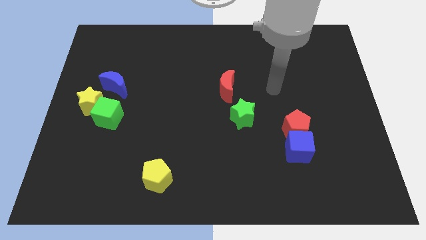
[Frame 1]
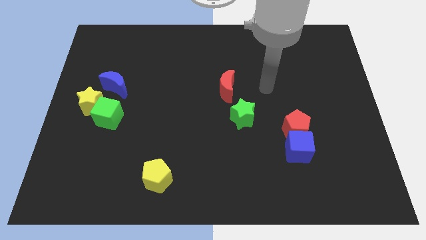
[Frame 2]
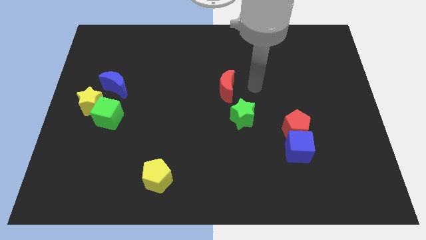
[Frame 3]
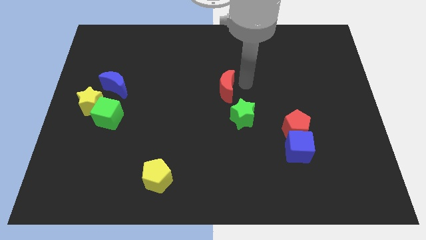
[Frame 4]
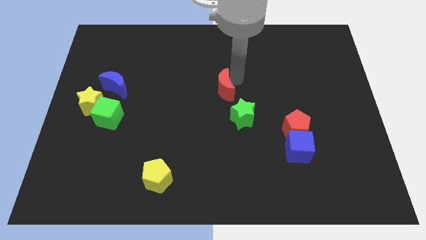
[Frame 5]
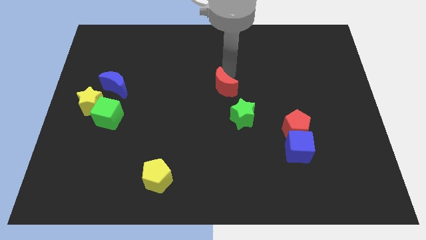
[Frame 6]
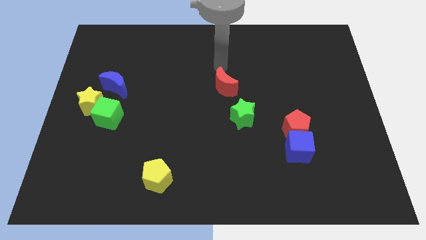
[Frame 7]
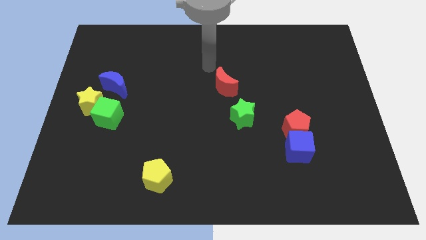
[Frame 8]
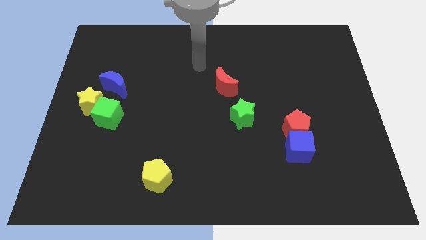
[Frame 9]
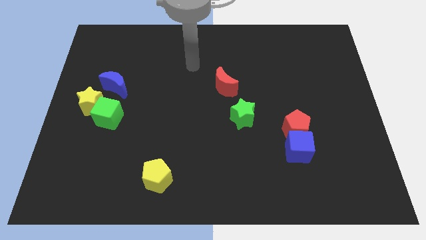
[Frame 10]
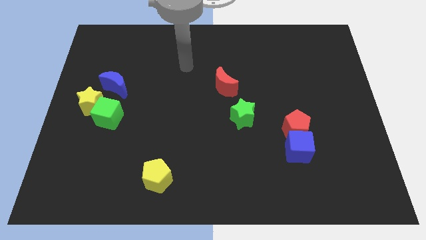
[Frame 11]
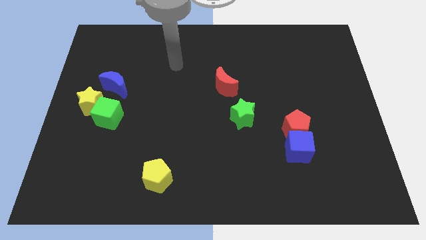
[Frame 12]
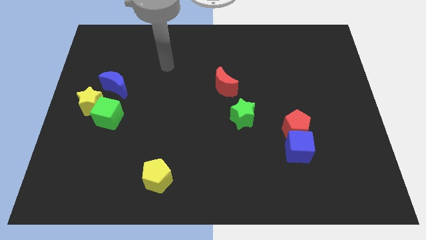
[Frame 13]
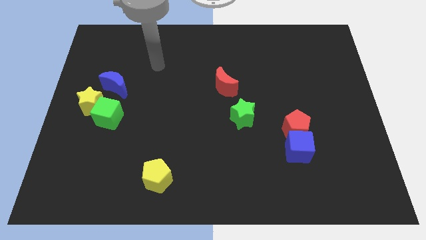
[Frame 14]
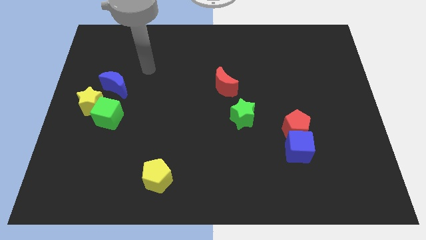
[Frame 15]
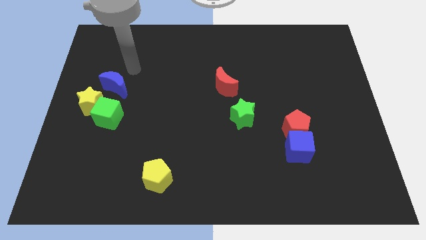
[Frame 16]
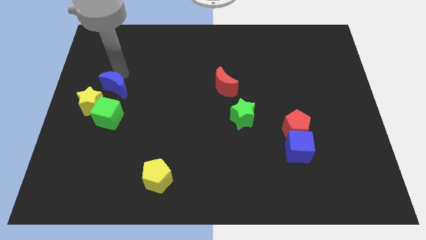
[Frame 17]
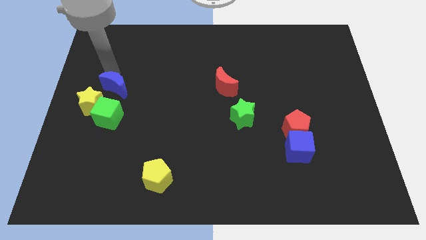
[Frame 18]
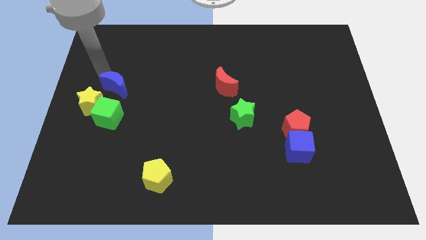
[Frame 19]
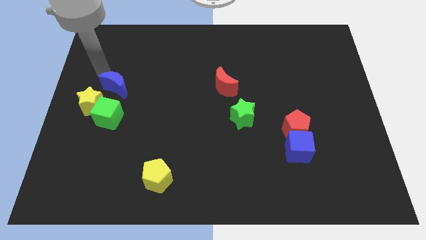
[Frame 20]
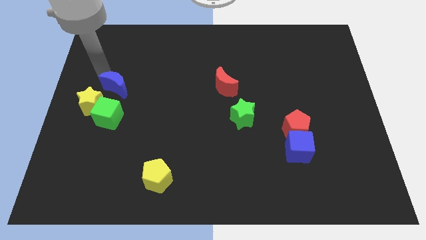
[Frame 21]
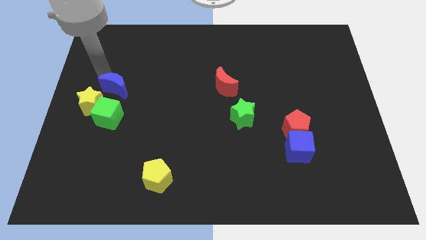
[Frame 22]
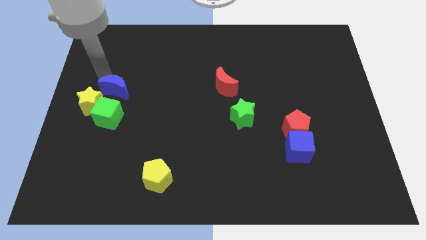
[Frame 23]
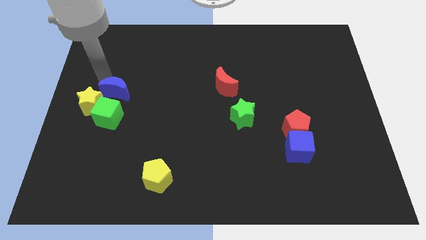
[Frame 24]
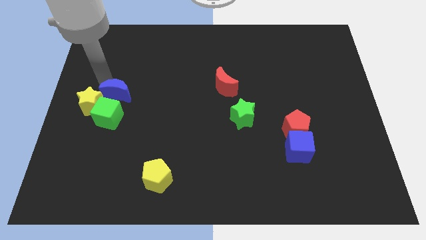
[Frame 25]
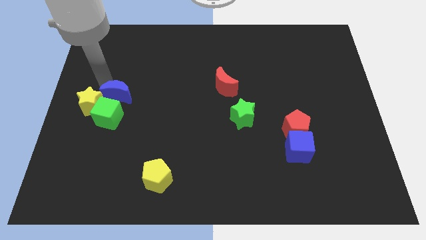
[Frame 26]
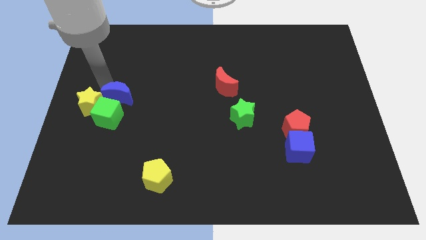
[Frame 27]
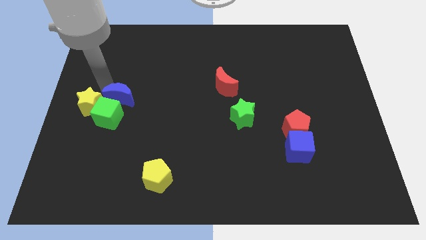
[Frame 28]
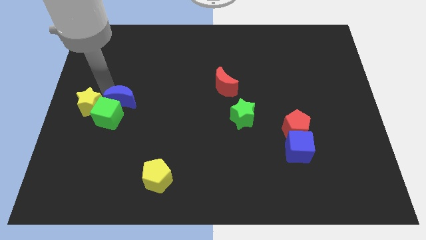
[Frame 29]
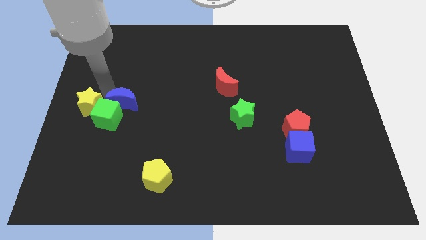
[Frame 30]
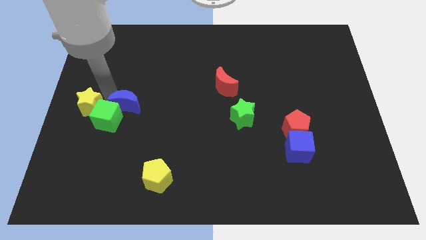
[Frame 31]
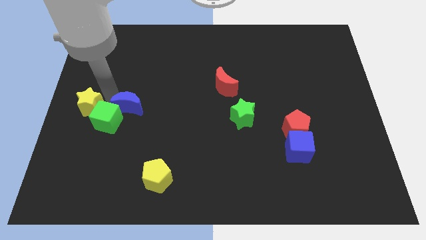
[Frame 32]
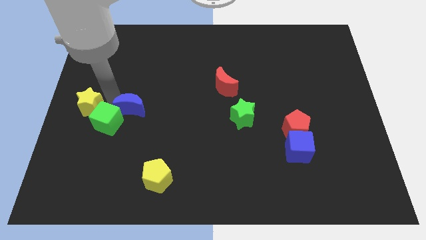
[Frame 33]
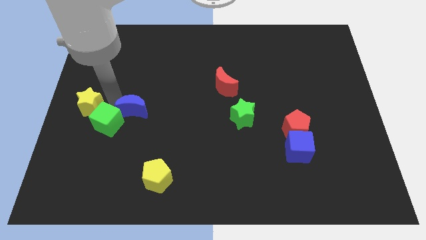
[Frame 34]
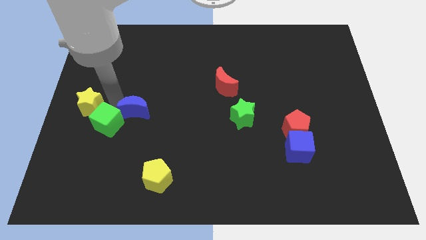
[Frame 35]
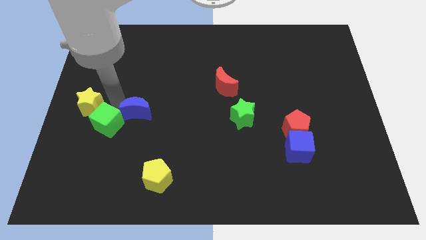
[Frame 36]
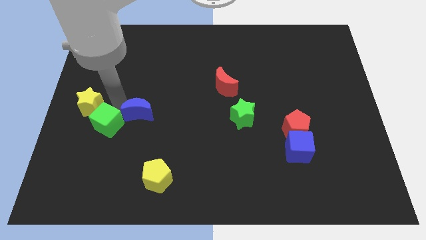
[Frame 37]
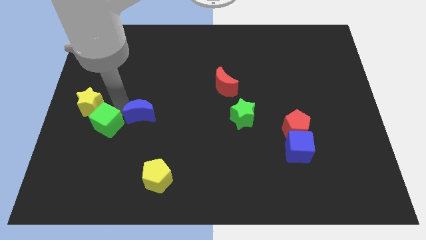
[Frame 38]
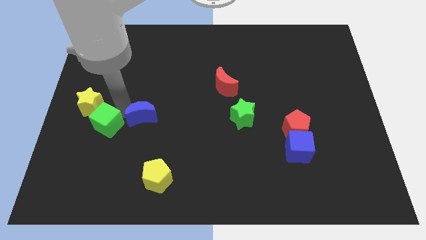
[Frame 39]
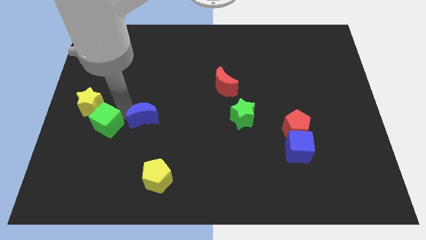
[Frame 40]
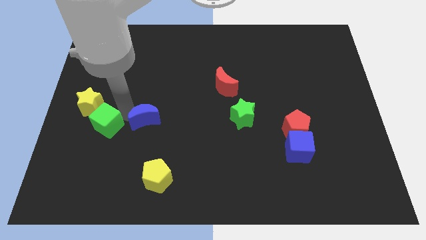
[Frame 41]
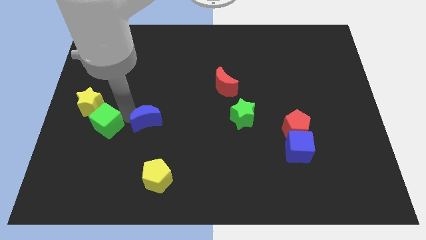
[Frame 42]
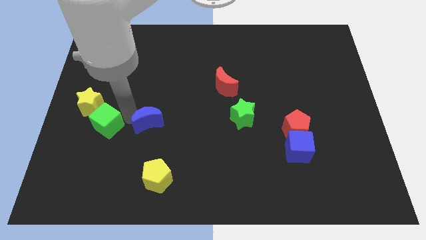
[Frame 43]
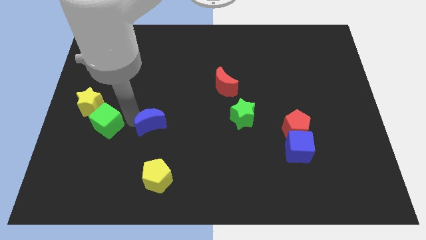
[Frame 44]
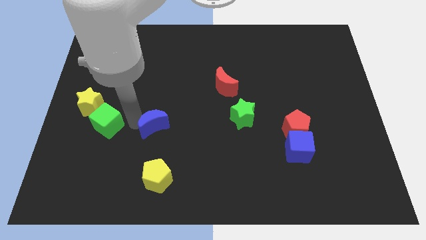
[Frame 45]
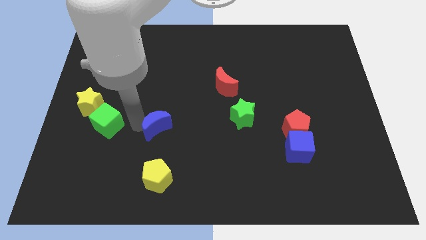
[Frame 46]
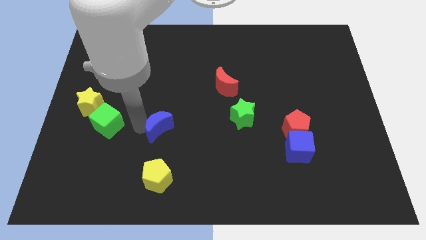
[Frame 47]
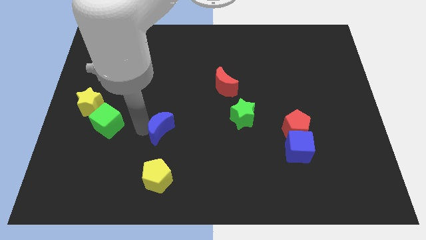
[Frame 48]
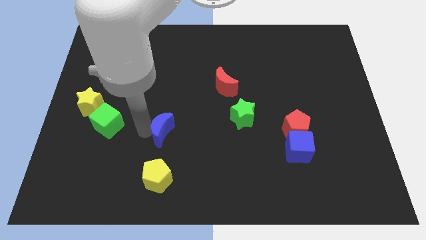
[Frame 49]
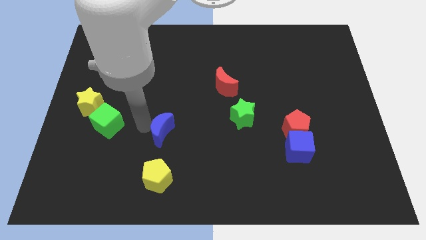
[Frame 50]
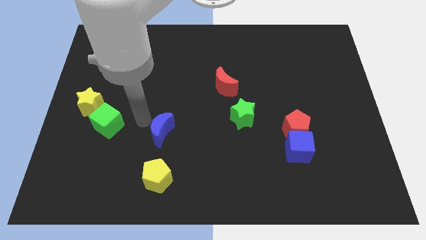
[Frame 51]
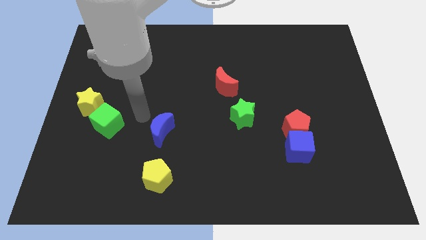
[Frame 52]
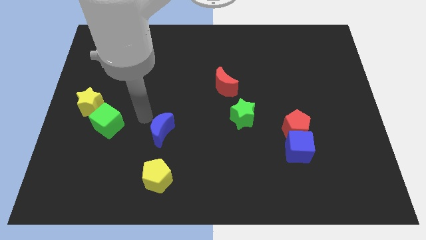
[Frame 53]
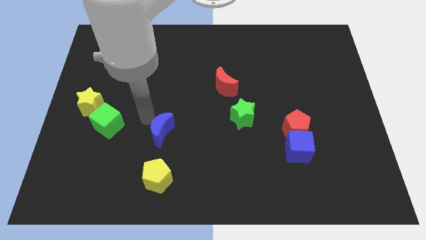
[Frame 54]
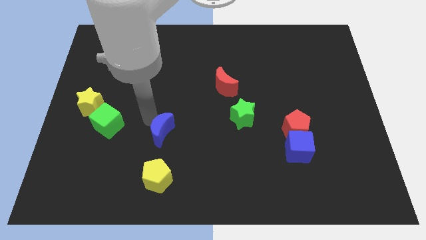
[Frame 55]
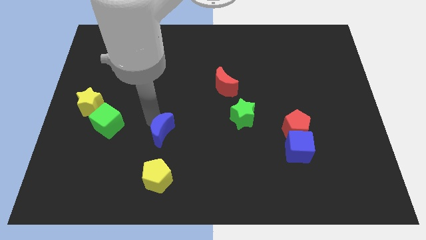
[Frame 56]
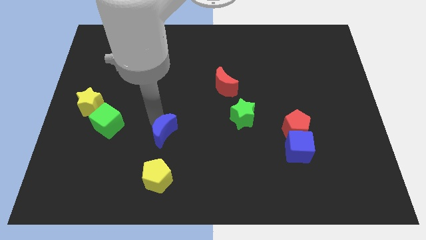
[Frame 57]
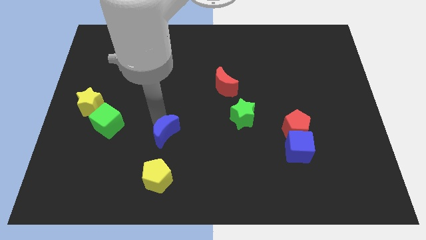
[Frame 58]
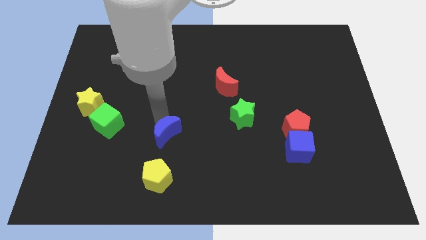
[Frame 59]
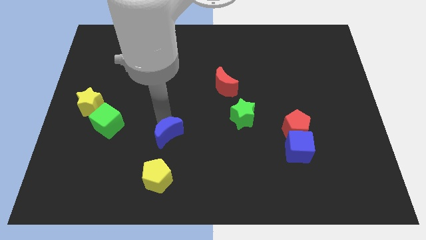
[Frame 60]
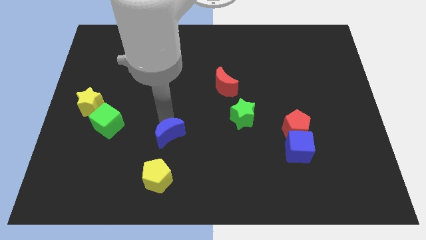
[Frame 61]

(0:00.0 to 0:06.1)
move the blue moon diagonally downwards and to the right

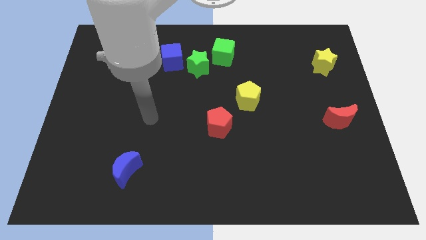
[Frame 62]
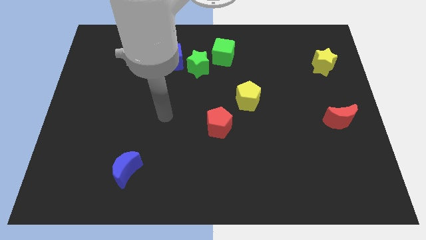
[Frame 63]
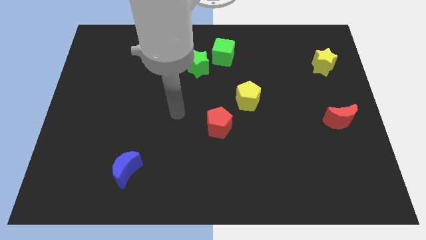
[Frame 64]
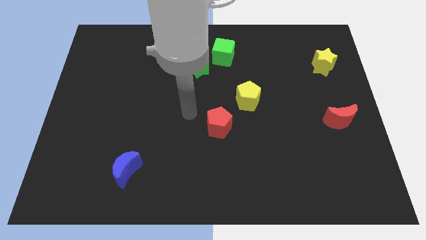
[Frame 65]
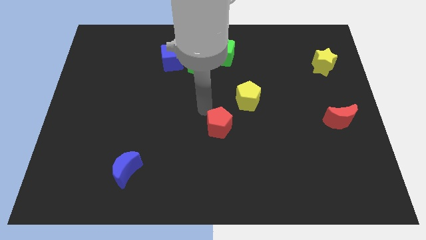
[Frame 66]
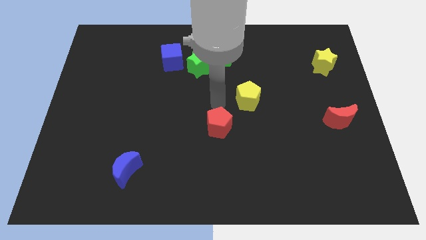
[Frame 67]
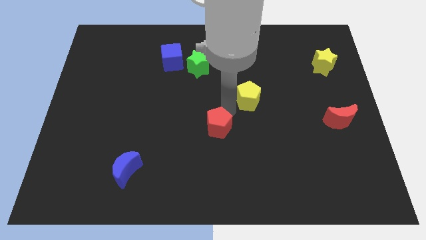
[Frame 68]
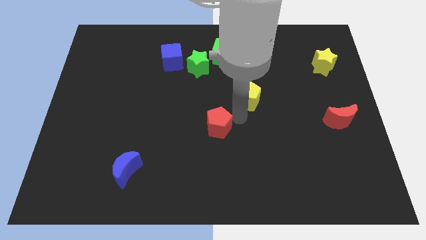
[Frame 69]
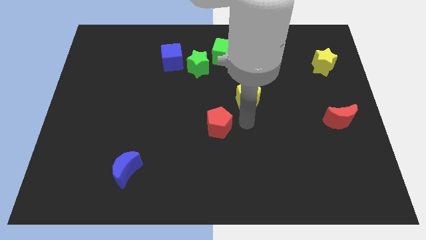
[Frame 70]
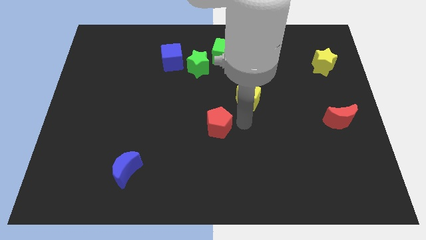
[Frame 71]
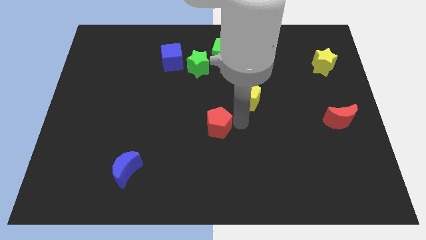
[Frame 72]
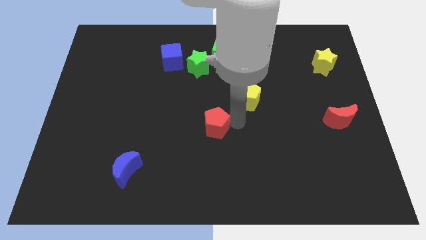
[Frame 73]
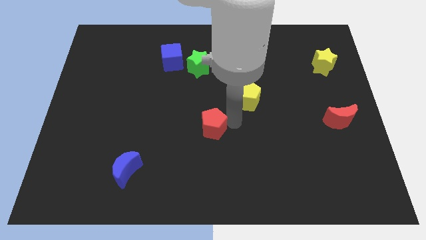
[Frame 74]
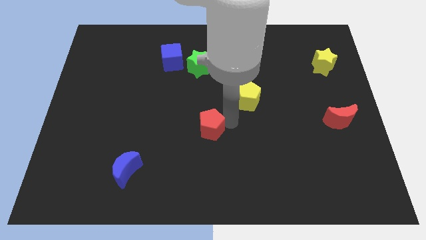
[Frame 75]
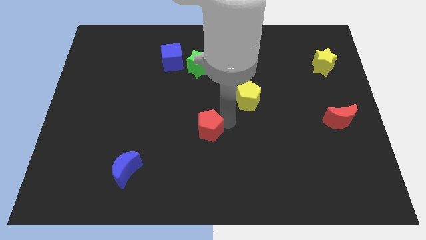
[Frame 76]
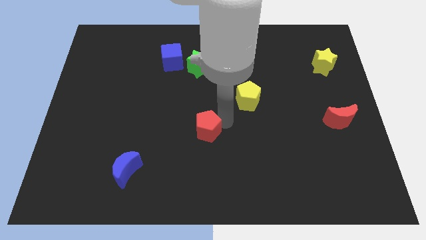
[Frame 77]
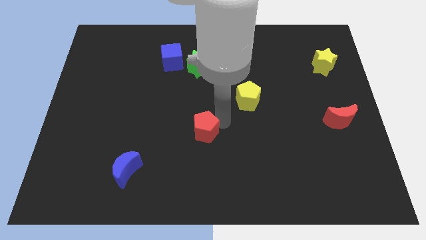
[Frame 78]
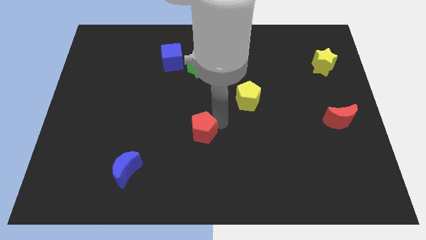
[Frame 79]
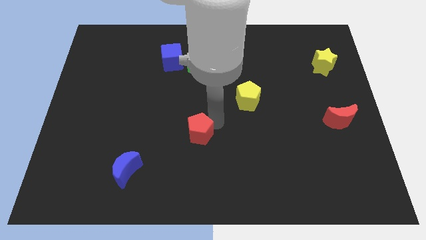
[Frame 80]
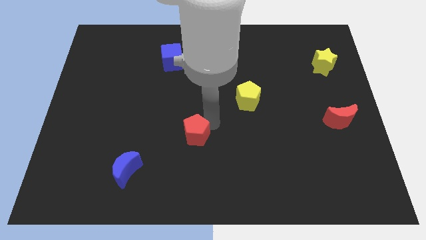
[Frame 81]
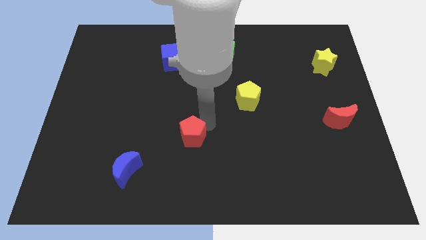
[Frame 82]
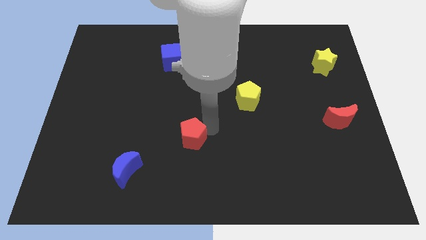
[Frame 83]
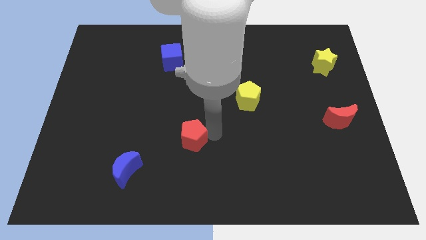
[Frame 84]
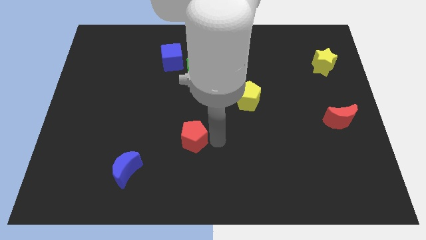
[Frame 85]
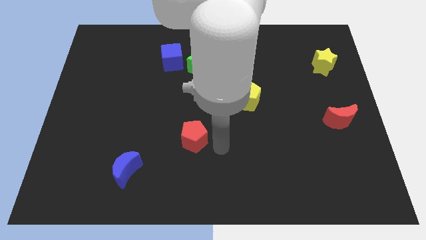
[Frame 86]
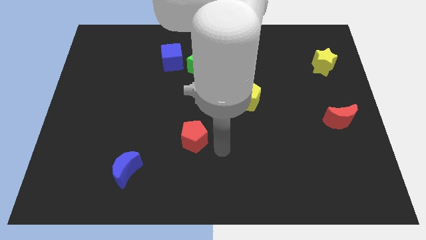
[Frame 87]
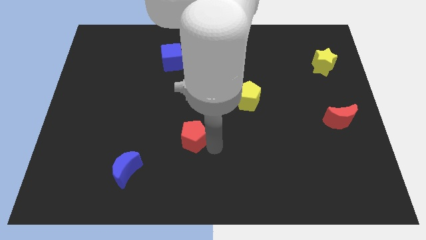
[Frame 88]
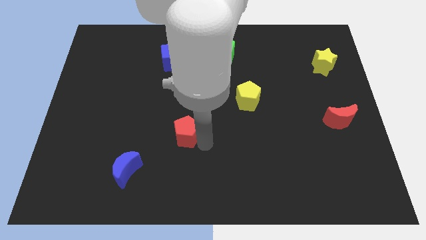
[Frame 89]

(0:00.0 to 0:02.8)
move the red pentagon to the left slightly
